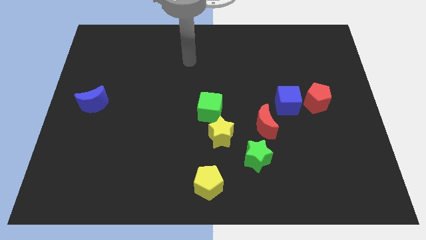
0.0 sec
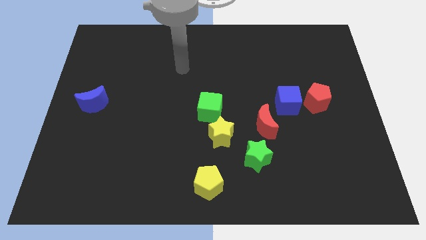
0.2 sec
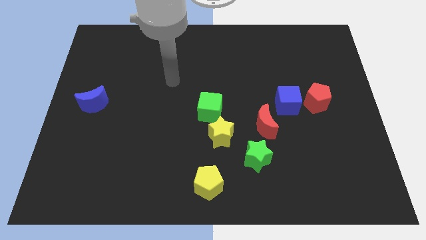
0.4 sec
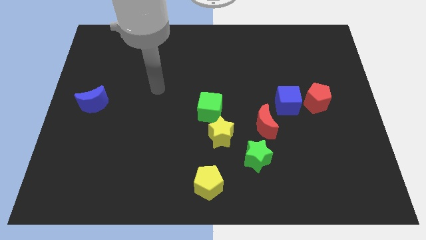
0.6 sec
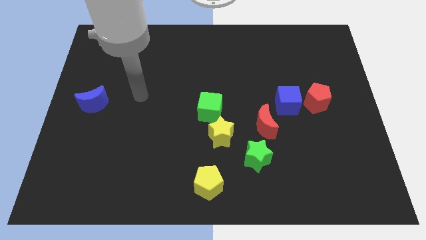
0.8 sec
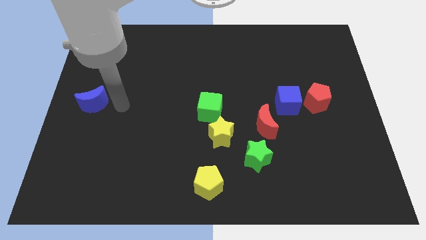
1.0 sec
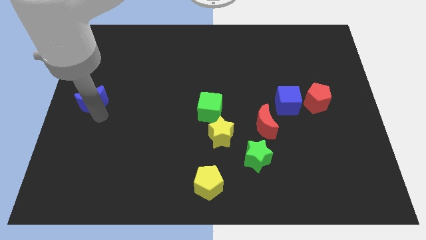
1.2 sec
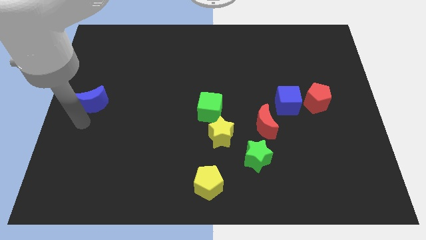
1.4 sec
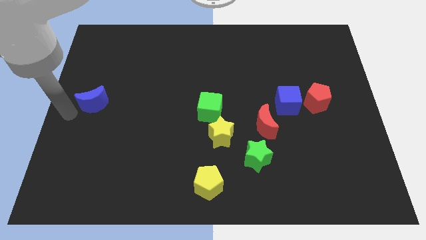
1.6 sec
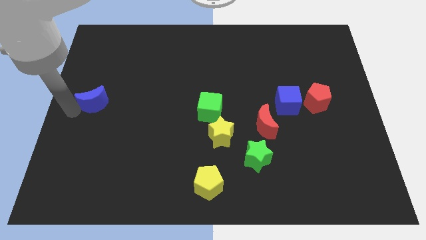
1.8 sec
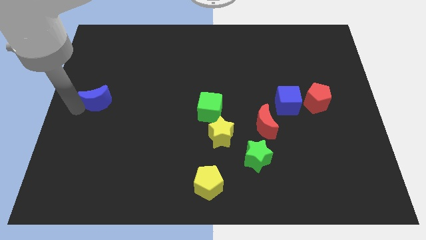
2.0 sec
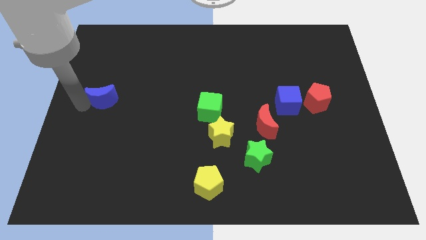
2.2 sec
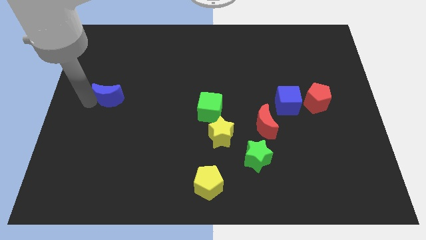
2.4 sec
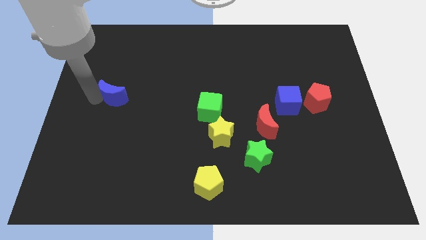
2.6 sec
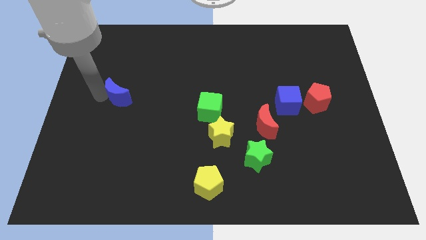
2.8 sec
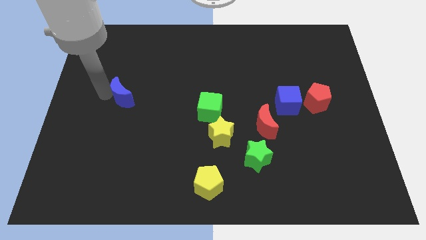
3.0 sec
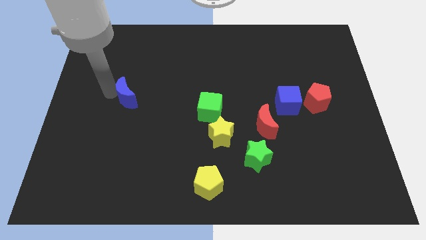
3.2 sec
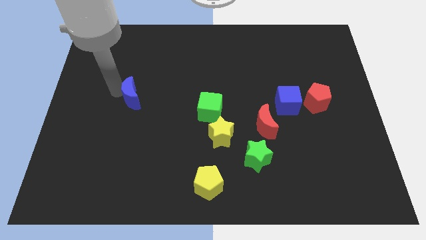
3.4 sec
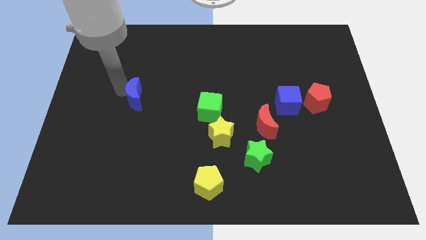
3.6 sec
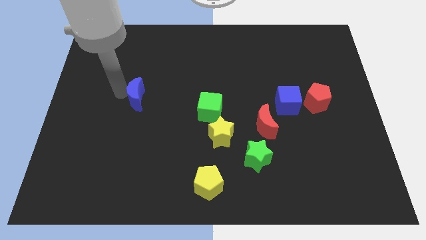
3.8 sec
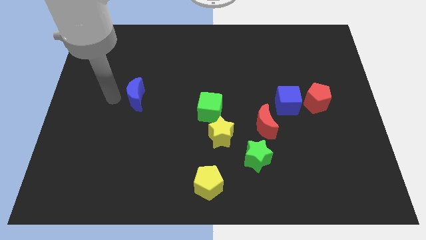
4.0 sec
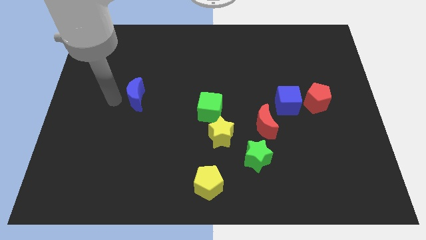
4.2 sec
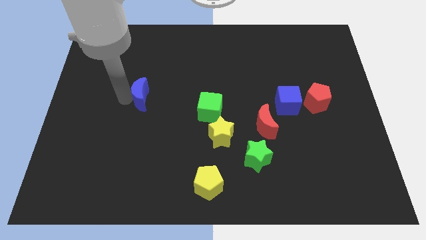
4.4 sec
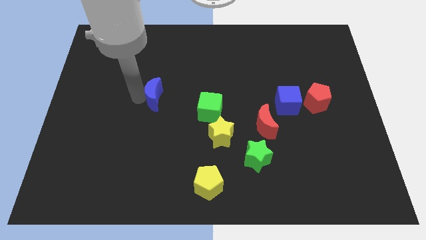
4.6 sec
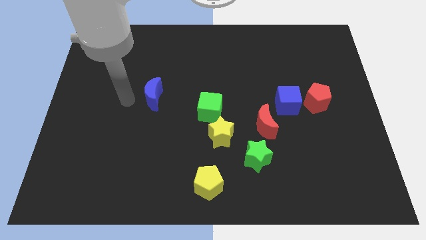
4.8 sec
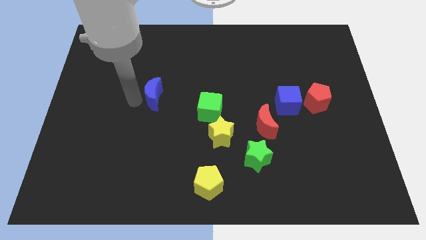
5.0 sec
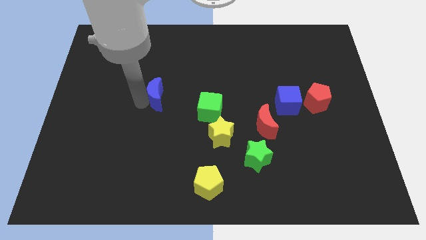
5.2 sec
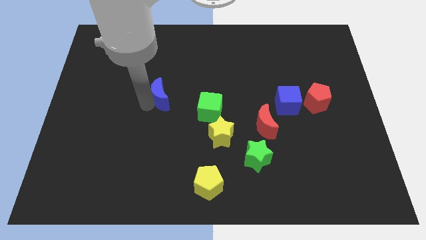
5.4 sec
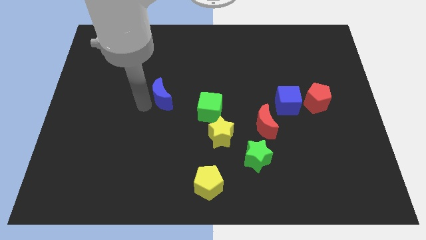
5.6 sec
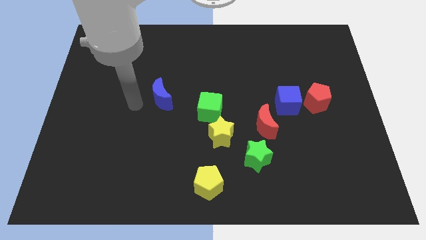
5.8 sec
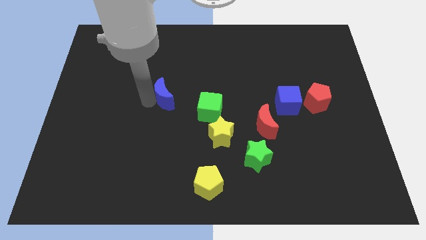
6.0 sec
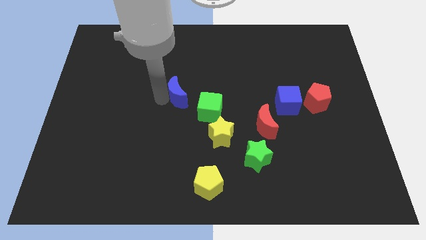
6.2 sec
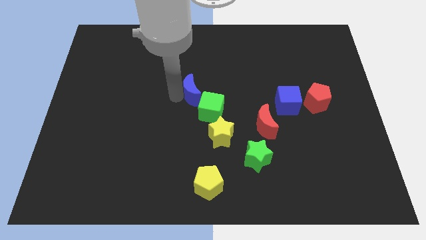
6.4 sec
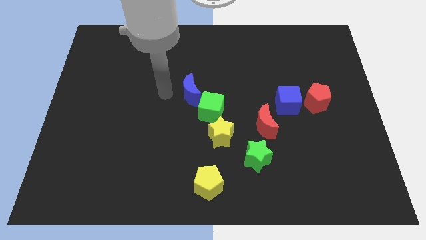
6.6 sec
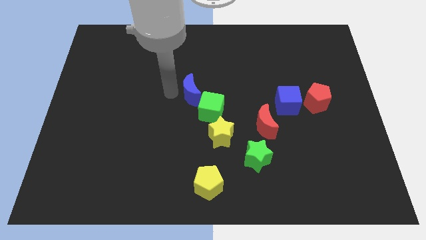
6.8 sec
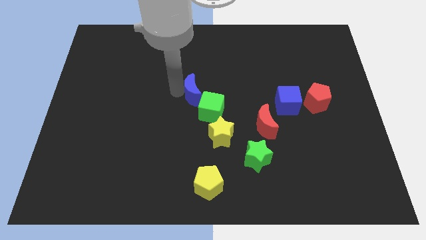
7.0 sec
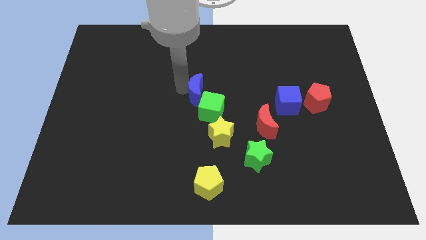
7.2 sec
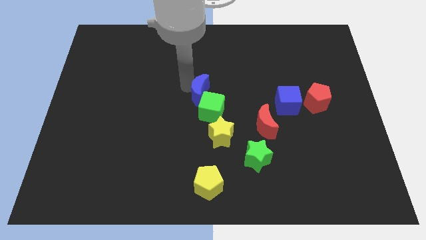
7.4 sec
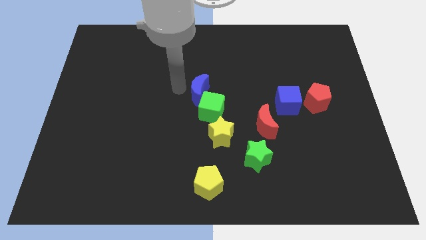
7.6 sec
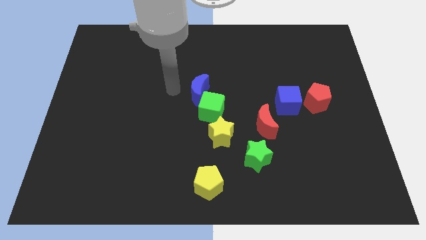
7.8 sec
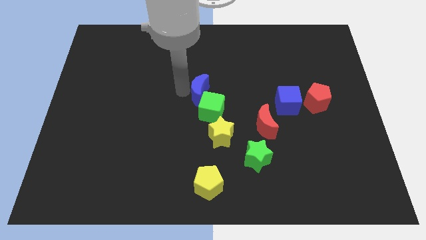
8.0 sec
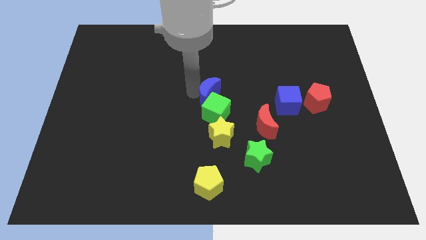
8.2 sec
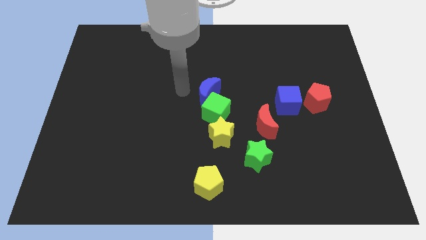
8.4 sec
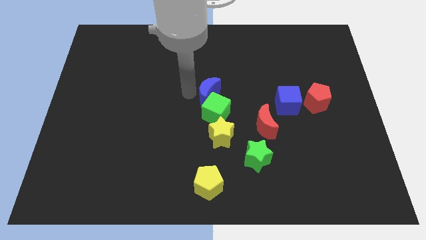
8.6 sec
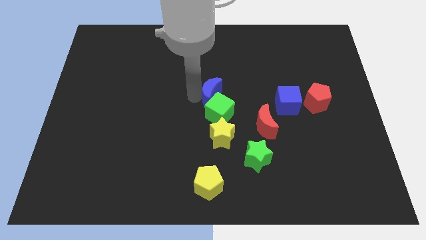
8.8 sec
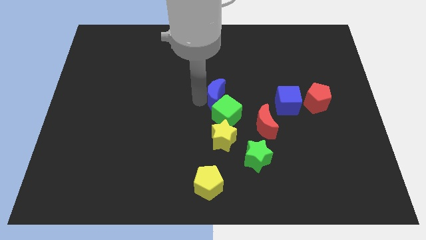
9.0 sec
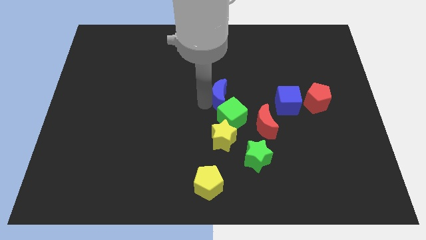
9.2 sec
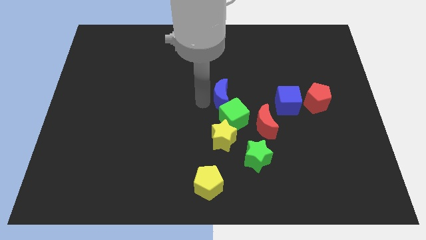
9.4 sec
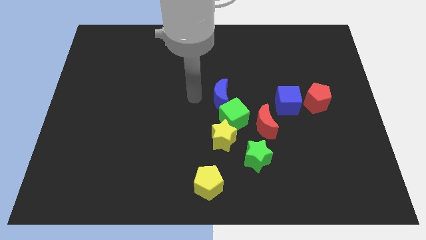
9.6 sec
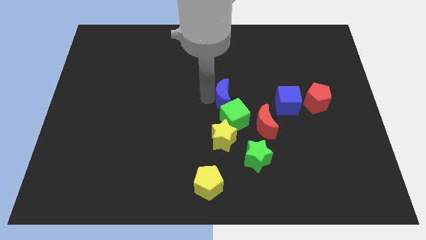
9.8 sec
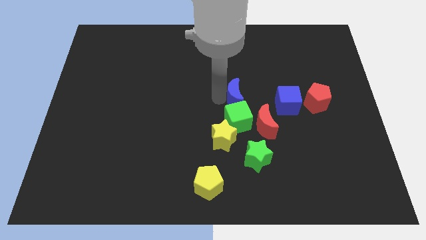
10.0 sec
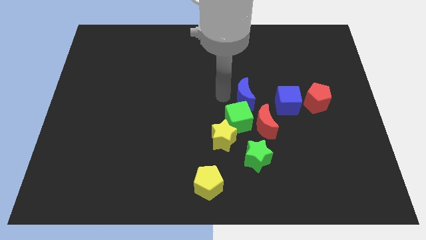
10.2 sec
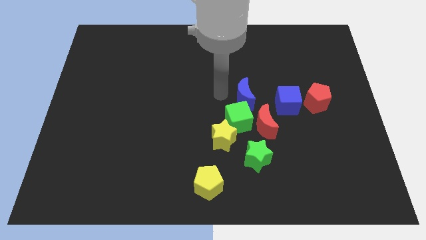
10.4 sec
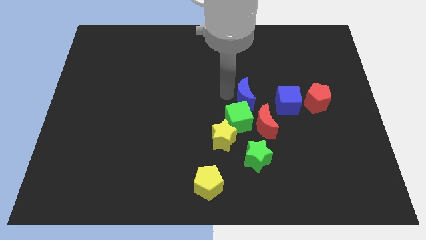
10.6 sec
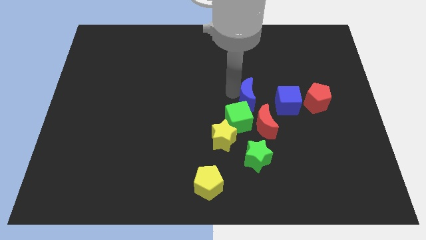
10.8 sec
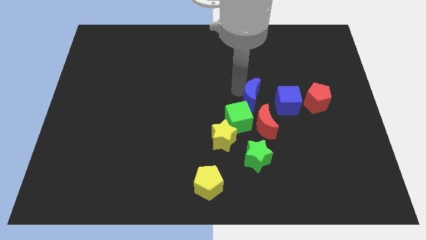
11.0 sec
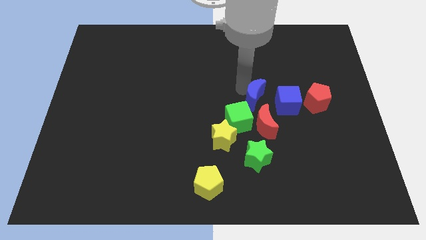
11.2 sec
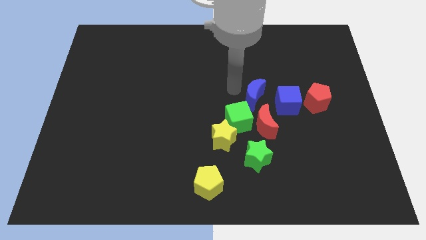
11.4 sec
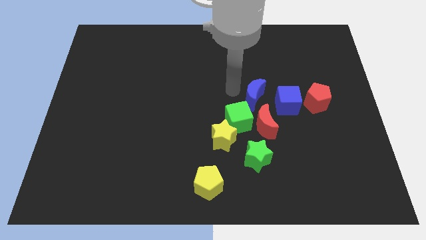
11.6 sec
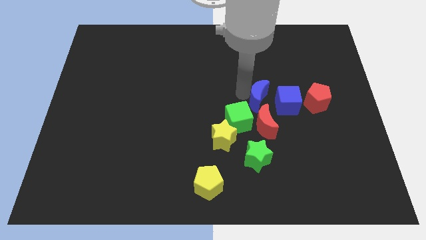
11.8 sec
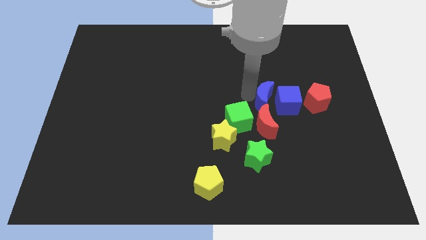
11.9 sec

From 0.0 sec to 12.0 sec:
push the blue moon to the blue cube

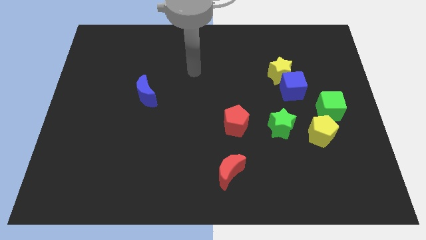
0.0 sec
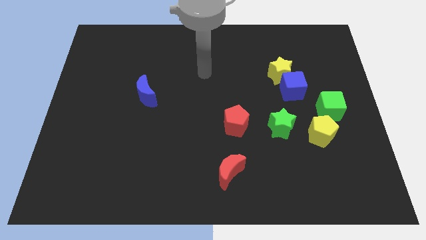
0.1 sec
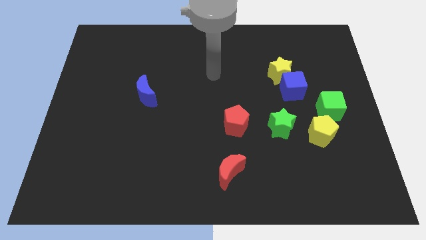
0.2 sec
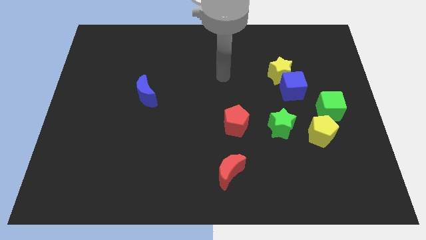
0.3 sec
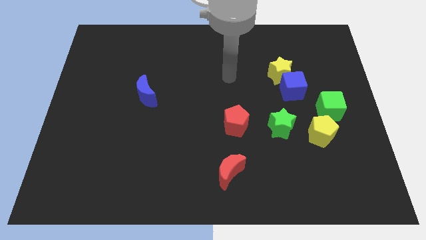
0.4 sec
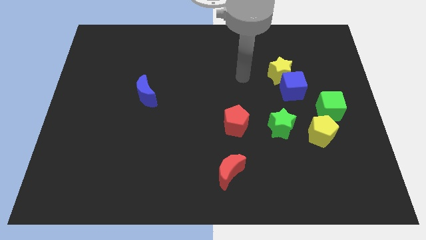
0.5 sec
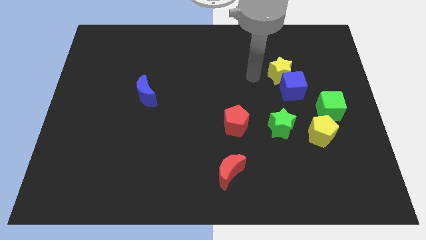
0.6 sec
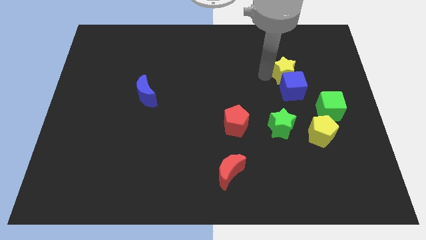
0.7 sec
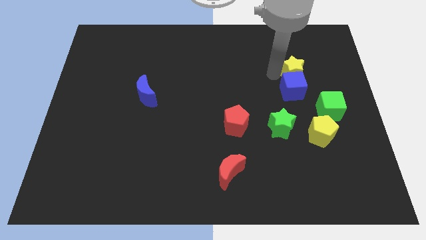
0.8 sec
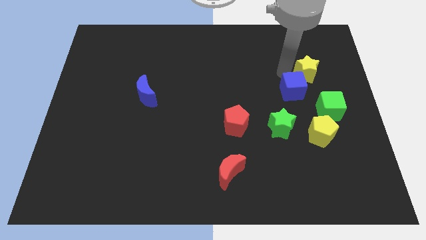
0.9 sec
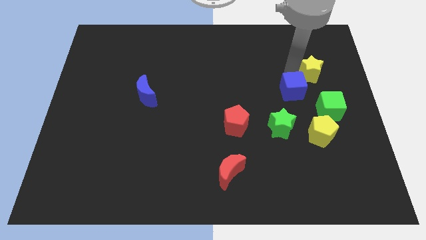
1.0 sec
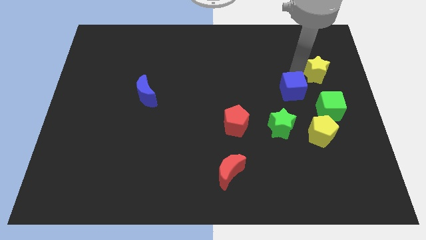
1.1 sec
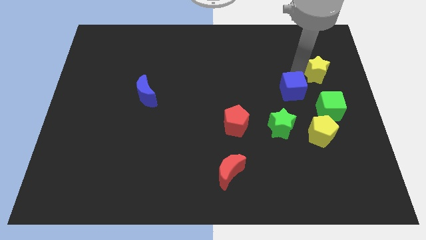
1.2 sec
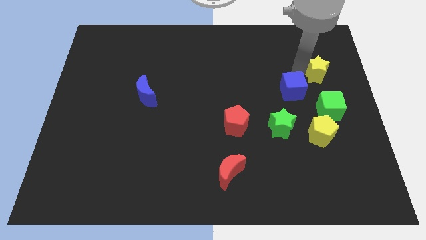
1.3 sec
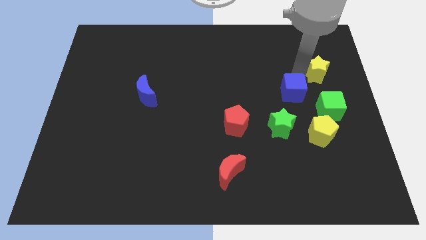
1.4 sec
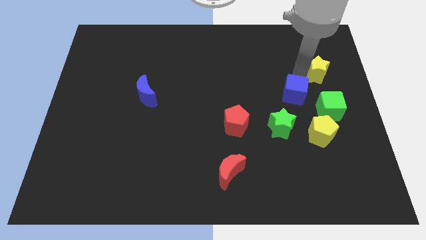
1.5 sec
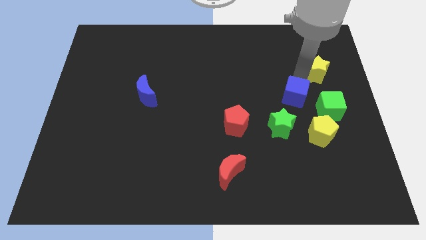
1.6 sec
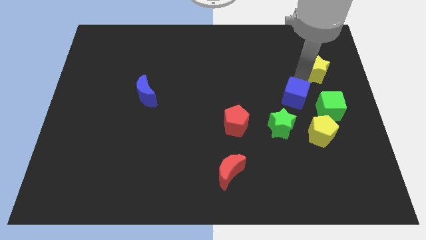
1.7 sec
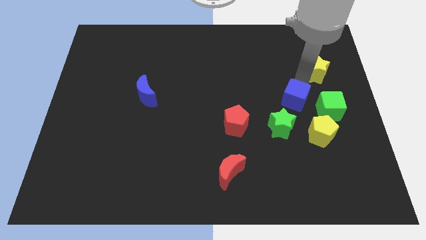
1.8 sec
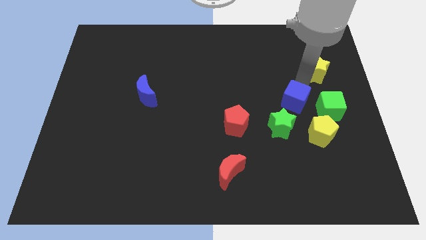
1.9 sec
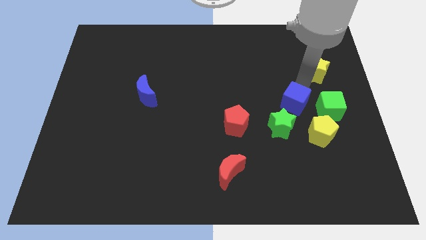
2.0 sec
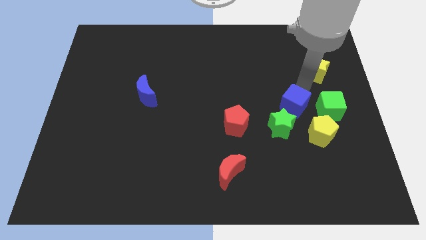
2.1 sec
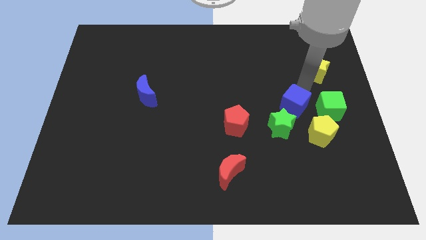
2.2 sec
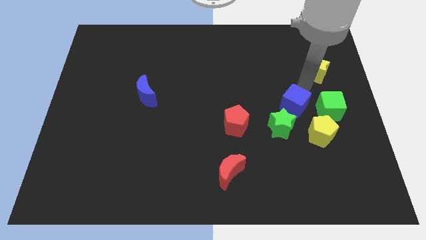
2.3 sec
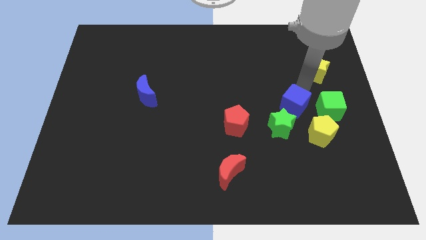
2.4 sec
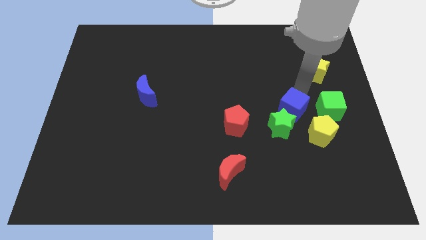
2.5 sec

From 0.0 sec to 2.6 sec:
push the blue cube next to the green star
